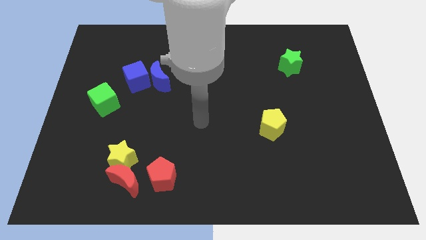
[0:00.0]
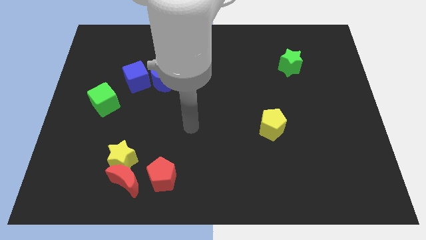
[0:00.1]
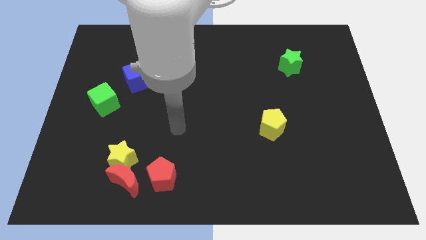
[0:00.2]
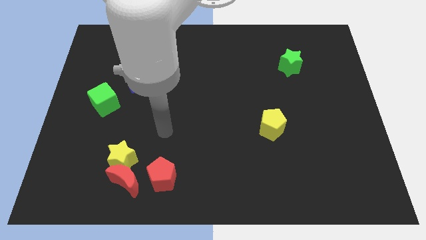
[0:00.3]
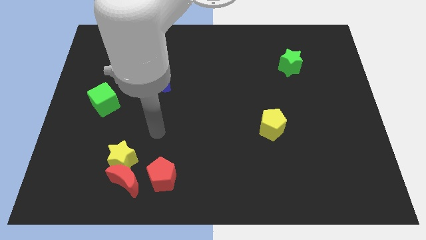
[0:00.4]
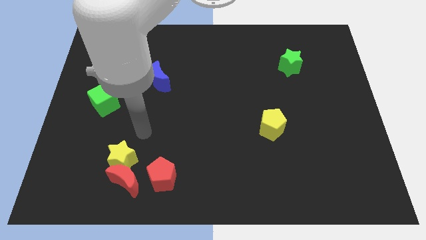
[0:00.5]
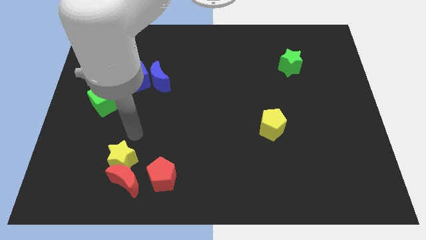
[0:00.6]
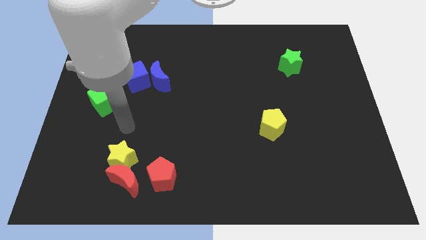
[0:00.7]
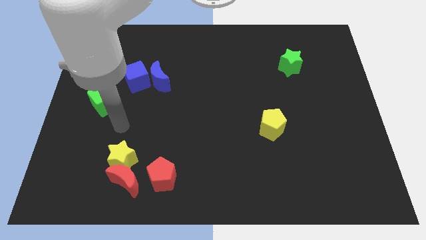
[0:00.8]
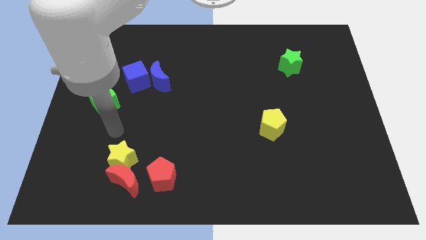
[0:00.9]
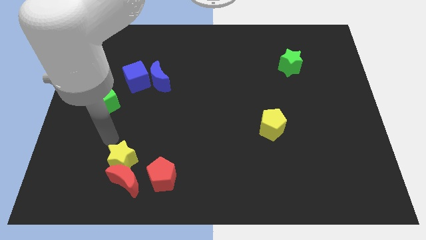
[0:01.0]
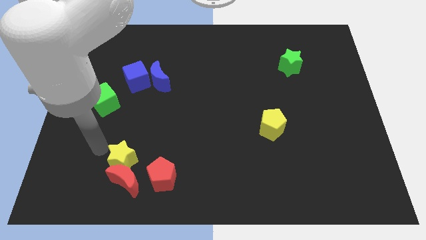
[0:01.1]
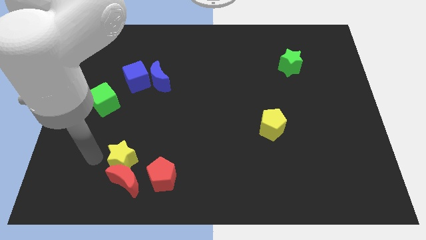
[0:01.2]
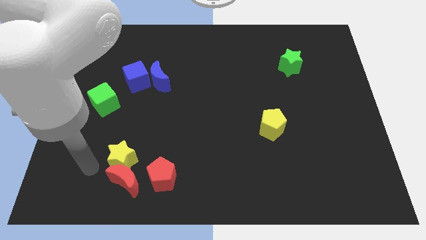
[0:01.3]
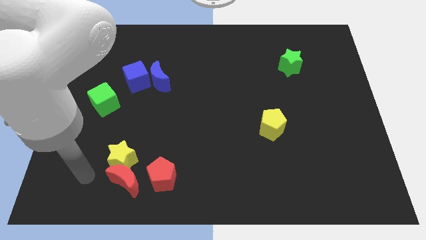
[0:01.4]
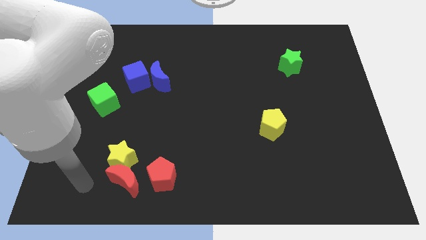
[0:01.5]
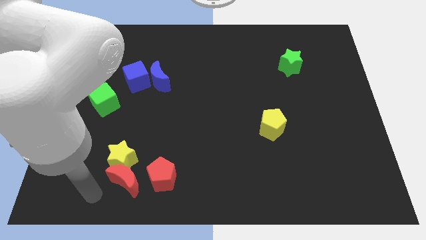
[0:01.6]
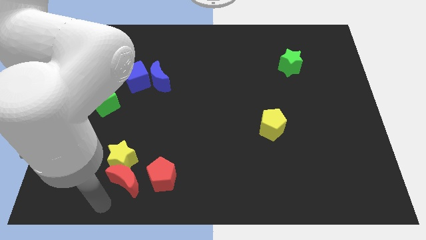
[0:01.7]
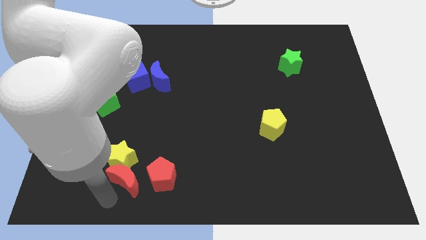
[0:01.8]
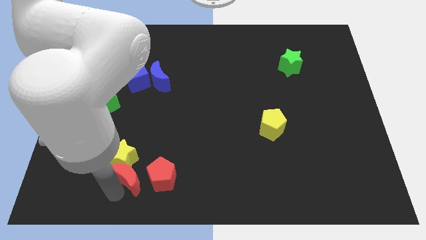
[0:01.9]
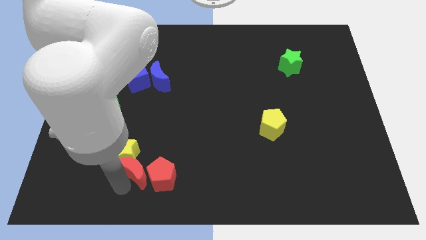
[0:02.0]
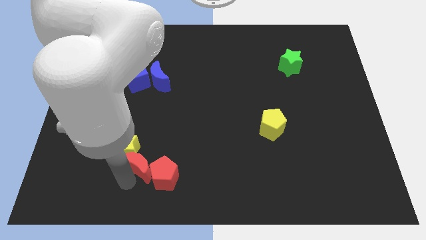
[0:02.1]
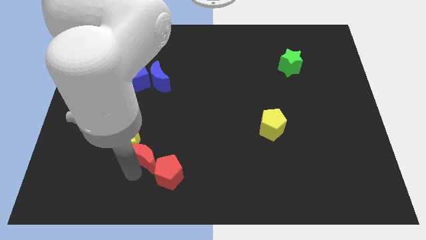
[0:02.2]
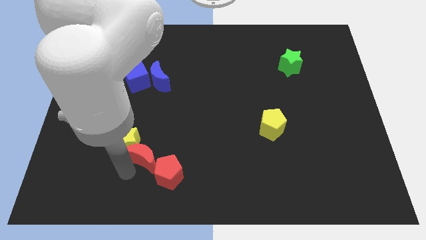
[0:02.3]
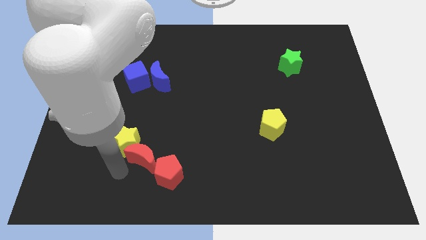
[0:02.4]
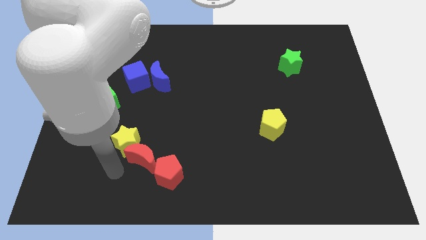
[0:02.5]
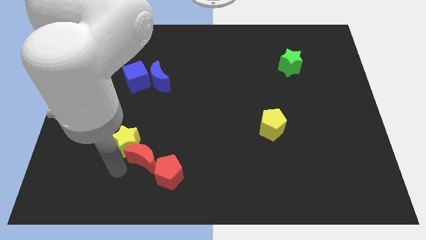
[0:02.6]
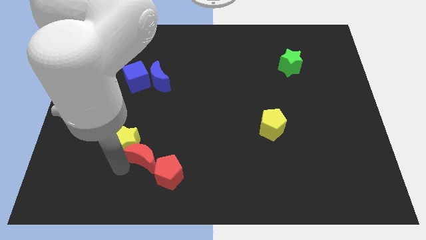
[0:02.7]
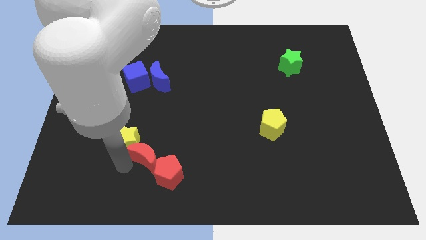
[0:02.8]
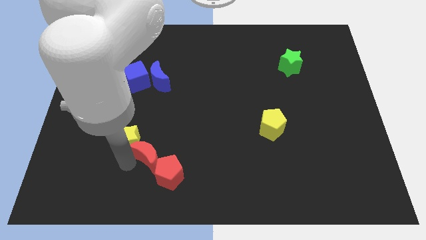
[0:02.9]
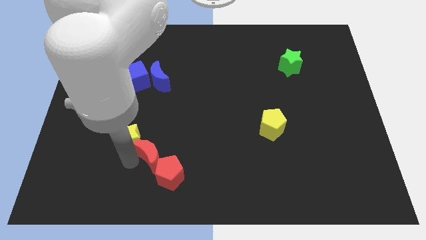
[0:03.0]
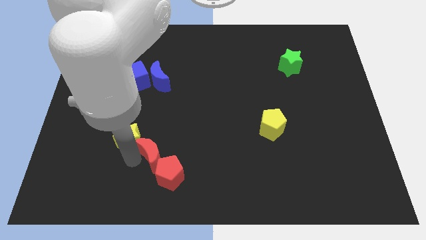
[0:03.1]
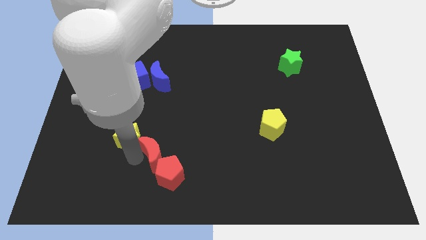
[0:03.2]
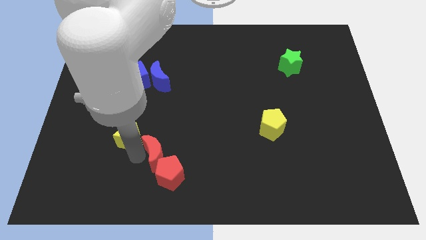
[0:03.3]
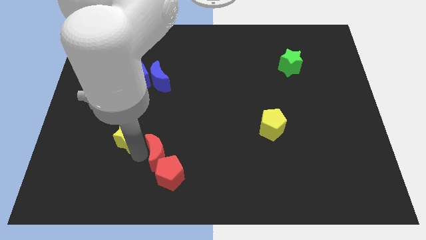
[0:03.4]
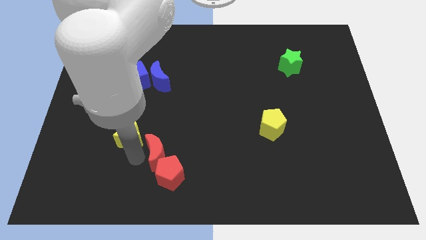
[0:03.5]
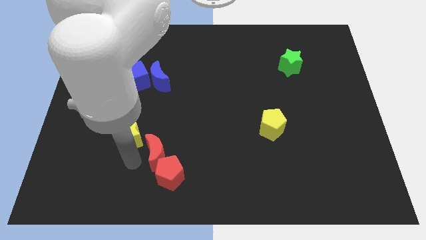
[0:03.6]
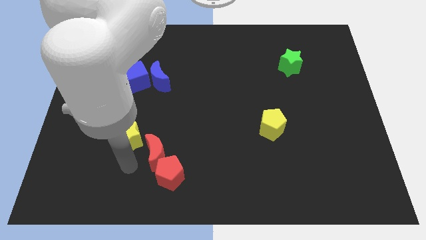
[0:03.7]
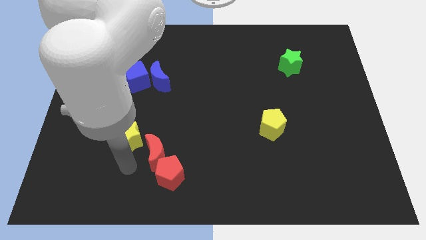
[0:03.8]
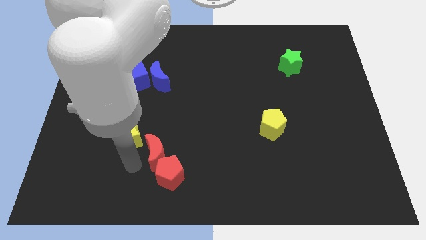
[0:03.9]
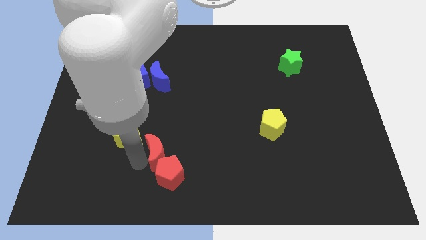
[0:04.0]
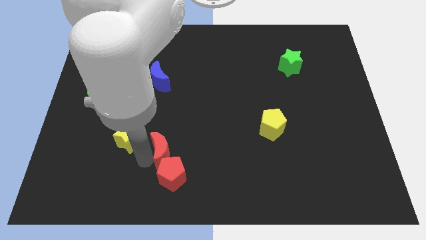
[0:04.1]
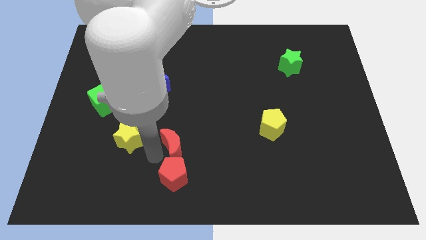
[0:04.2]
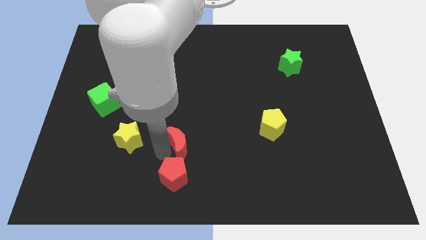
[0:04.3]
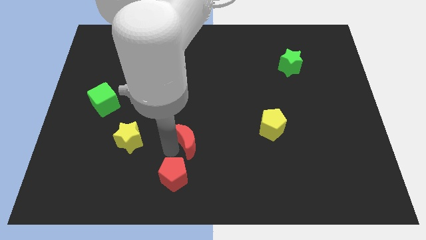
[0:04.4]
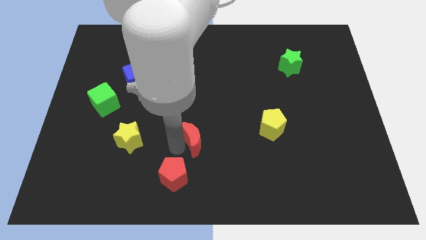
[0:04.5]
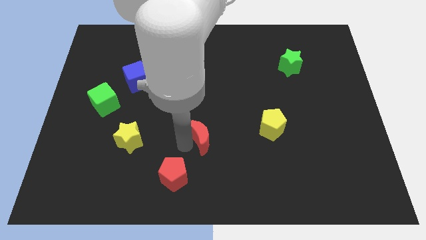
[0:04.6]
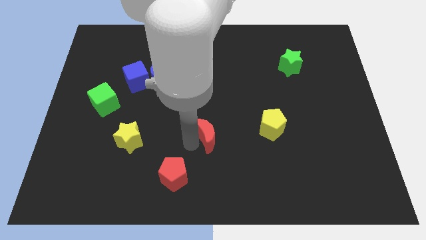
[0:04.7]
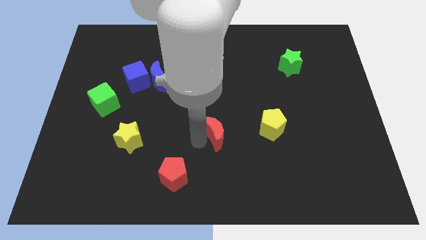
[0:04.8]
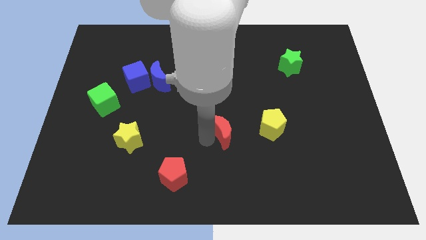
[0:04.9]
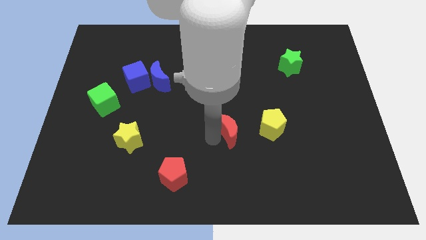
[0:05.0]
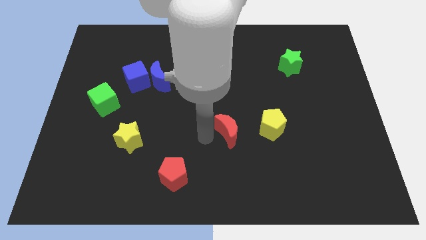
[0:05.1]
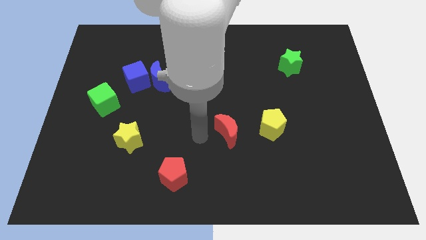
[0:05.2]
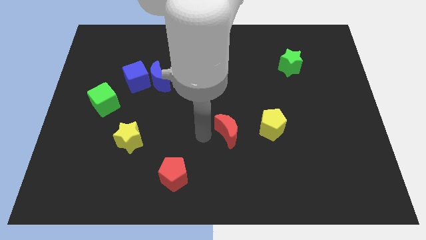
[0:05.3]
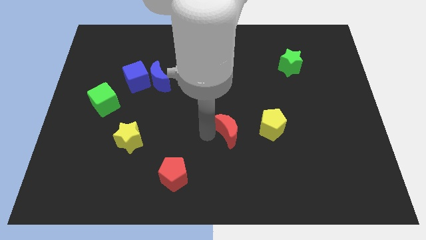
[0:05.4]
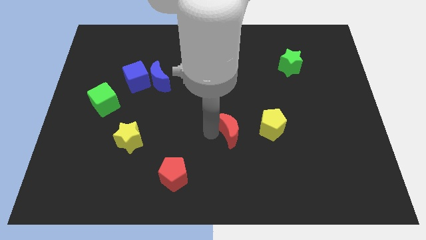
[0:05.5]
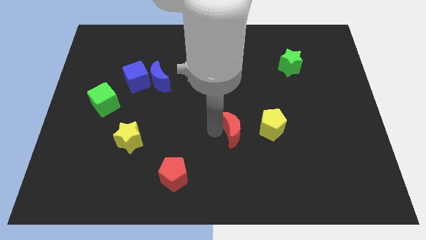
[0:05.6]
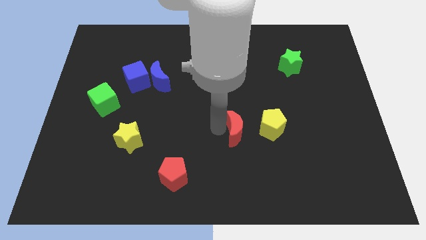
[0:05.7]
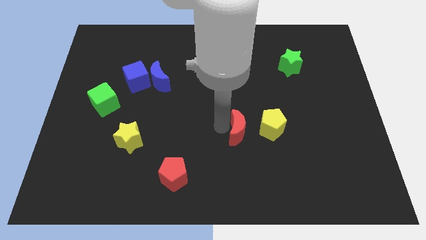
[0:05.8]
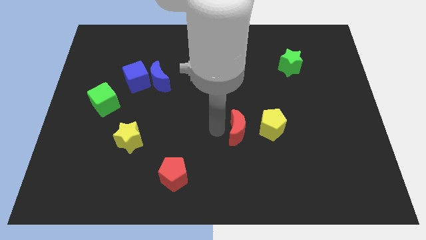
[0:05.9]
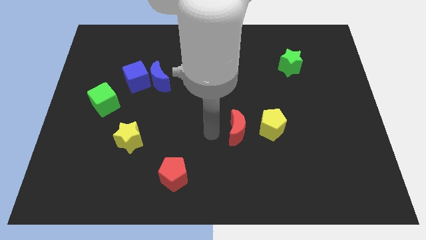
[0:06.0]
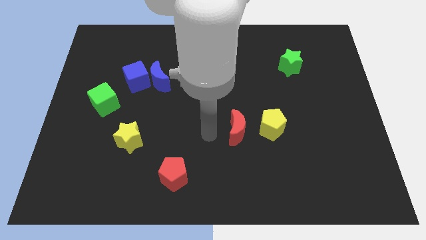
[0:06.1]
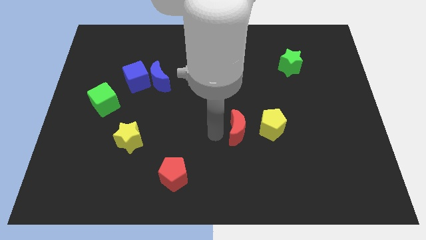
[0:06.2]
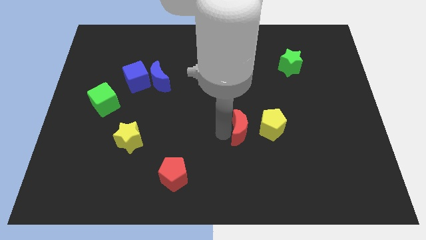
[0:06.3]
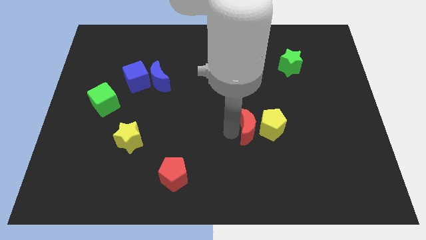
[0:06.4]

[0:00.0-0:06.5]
put the red moon to the yellow pentagon

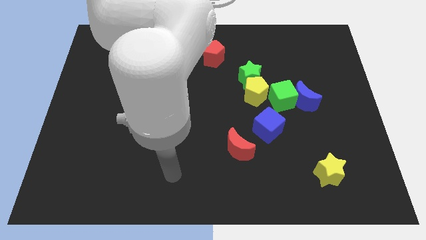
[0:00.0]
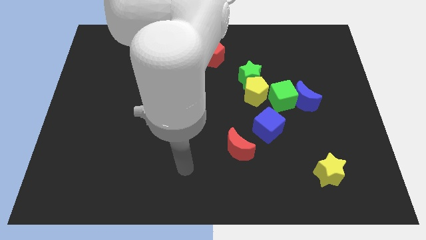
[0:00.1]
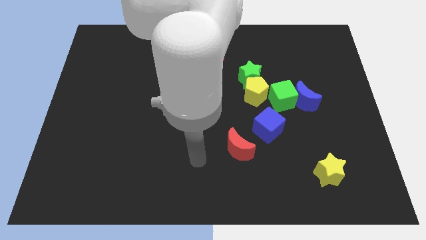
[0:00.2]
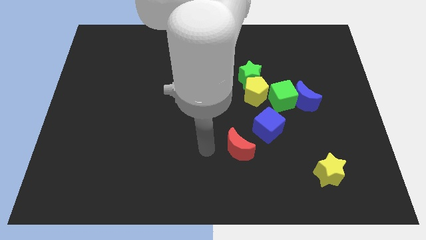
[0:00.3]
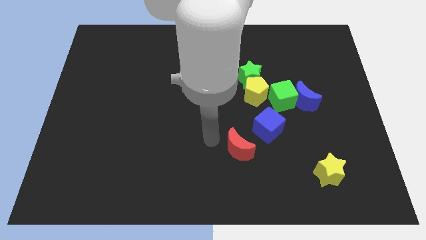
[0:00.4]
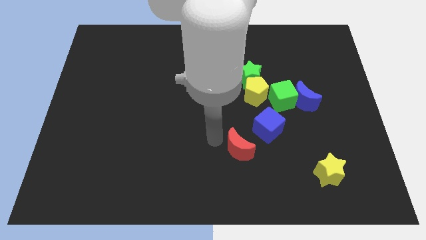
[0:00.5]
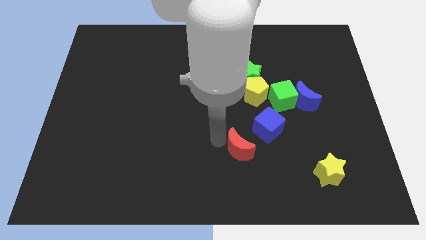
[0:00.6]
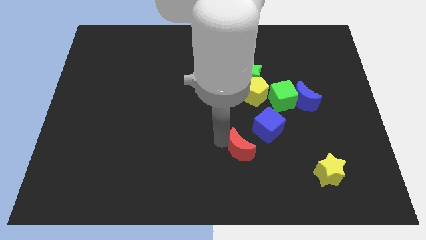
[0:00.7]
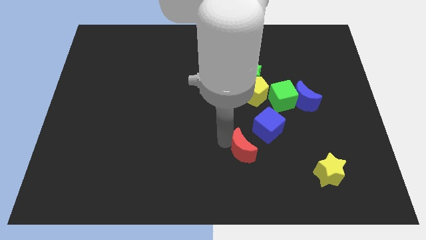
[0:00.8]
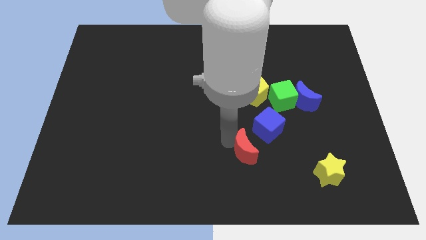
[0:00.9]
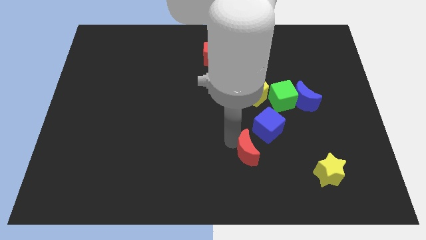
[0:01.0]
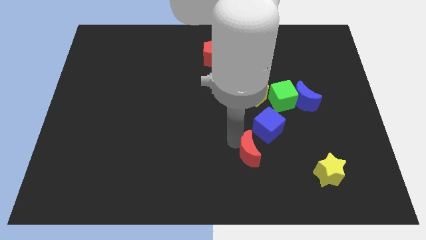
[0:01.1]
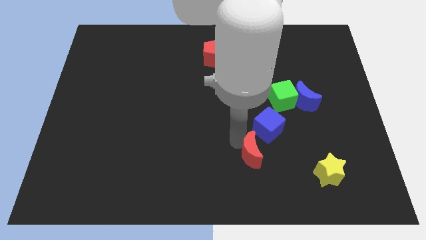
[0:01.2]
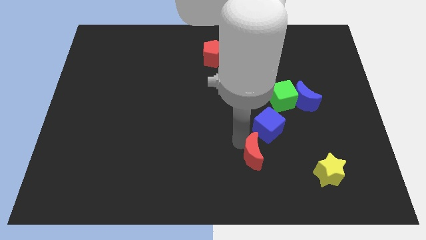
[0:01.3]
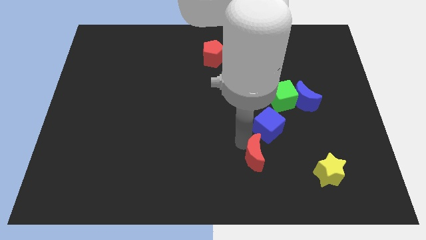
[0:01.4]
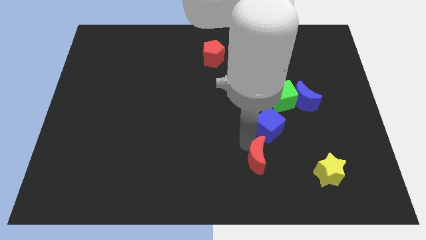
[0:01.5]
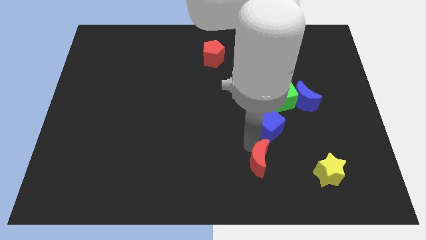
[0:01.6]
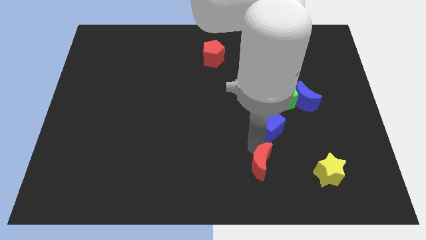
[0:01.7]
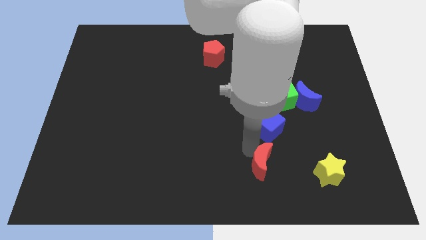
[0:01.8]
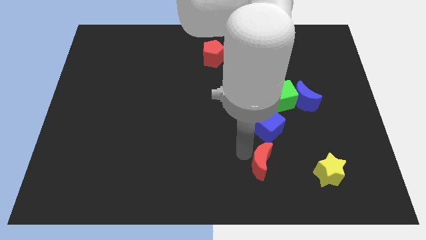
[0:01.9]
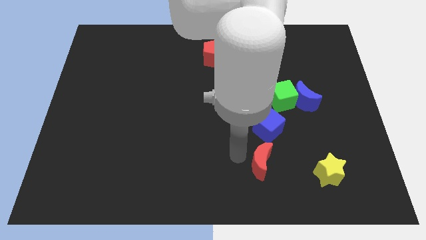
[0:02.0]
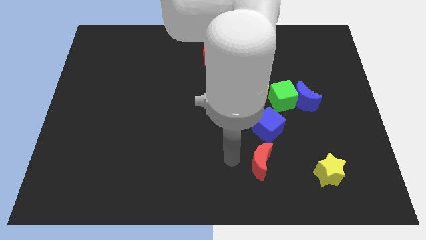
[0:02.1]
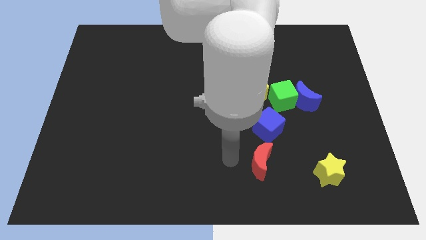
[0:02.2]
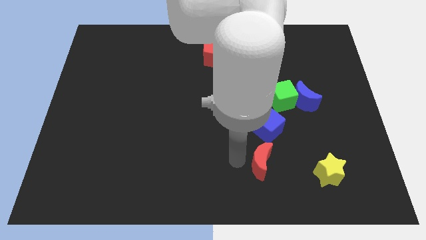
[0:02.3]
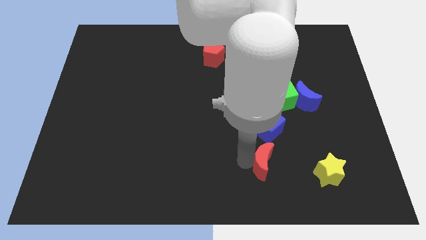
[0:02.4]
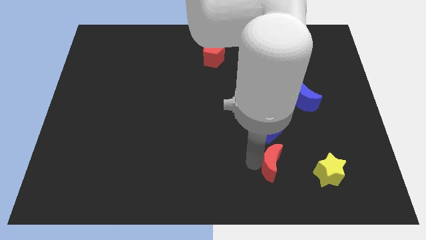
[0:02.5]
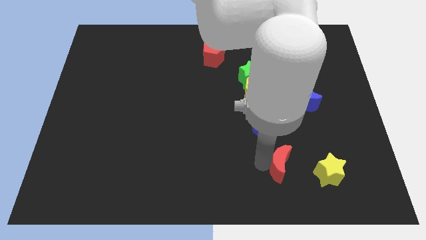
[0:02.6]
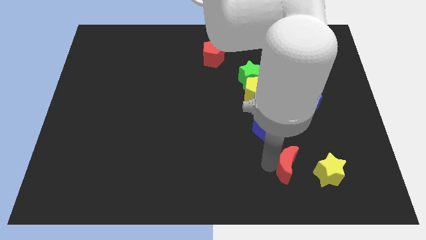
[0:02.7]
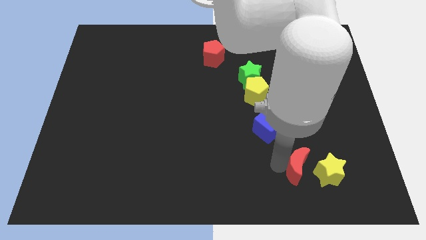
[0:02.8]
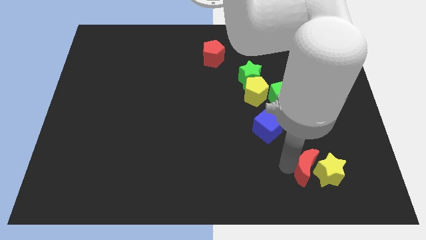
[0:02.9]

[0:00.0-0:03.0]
move the red moon close to the yellow star
